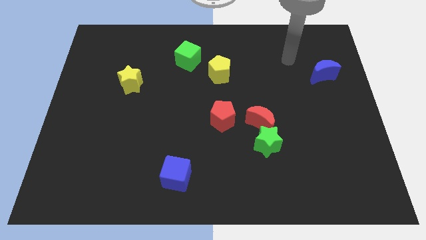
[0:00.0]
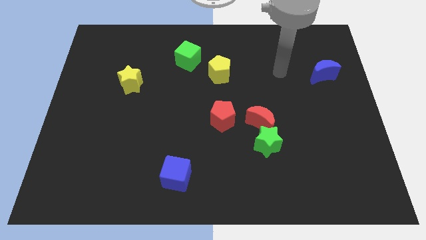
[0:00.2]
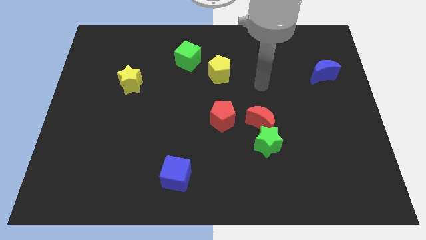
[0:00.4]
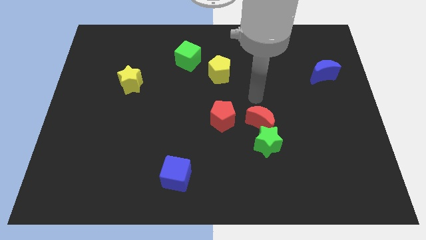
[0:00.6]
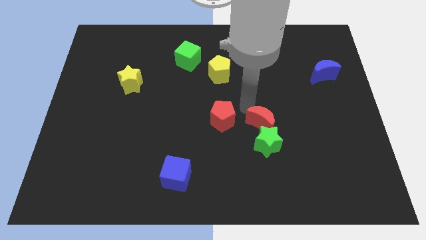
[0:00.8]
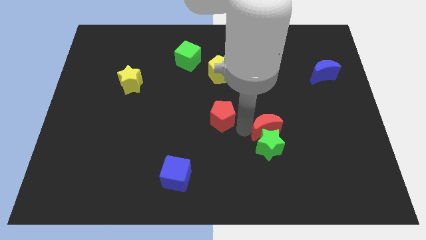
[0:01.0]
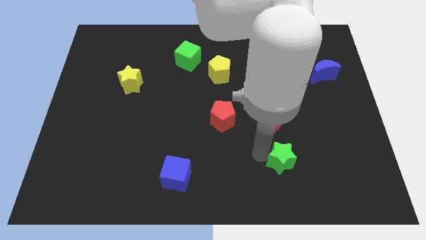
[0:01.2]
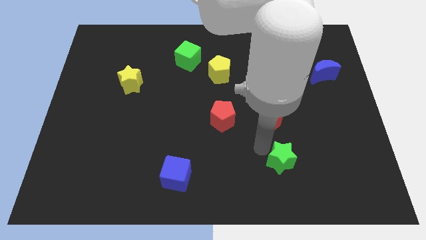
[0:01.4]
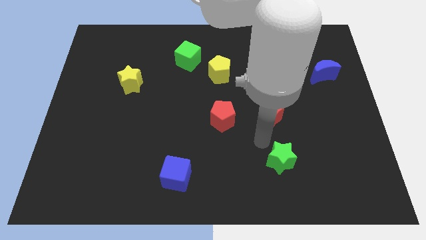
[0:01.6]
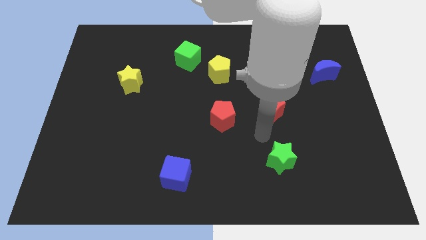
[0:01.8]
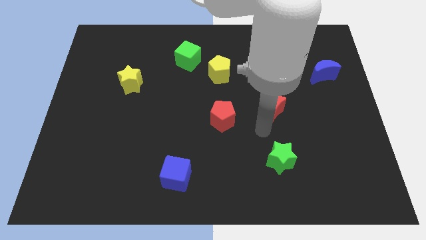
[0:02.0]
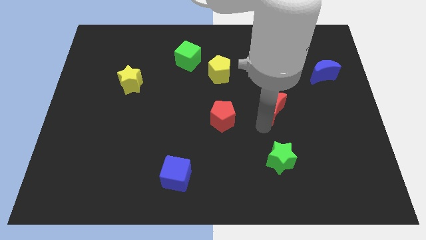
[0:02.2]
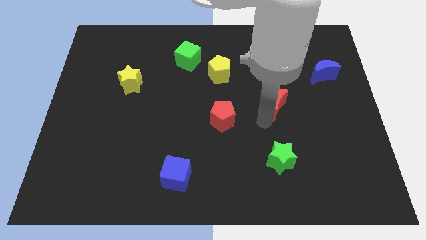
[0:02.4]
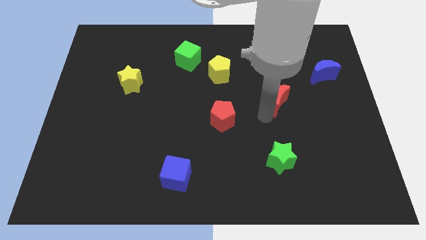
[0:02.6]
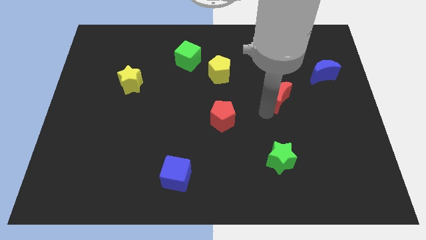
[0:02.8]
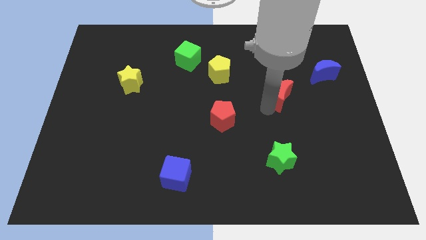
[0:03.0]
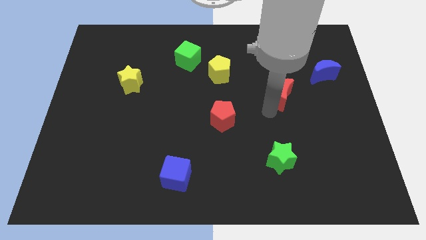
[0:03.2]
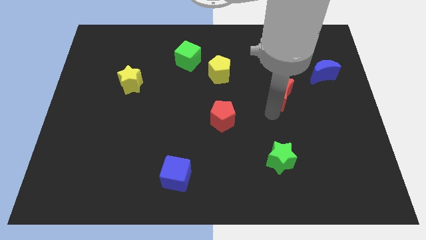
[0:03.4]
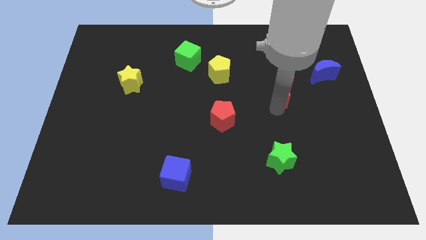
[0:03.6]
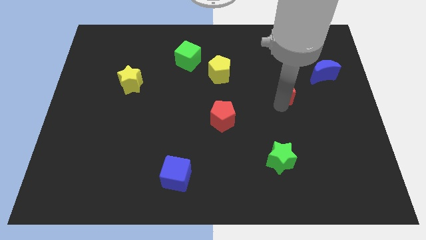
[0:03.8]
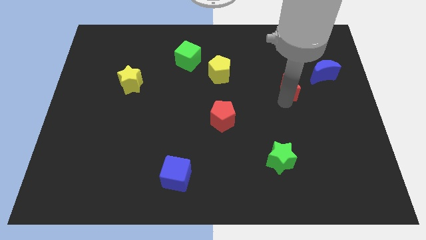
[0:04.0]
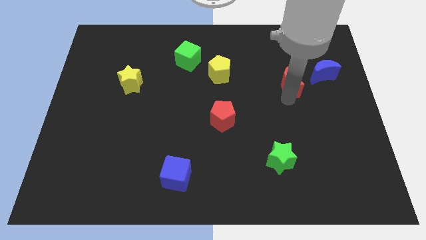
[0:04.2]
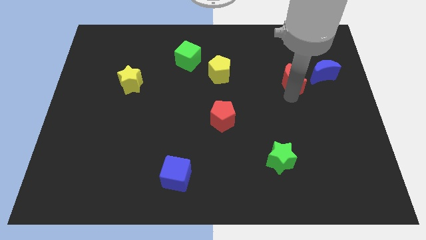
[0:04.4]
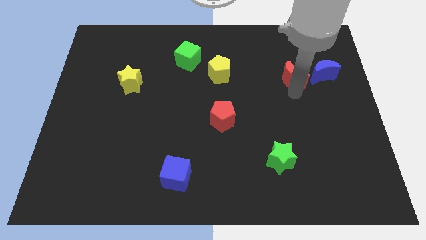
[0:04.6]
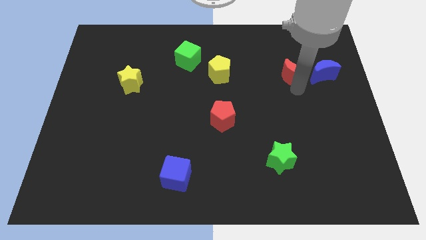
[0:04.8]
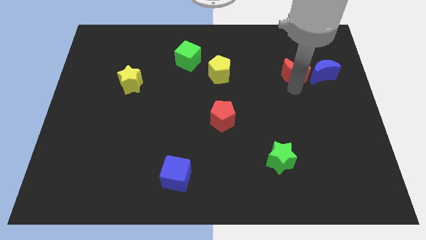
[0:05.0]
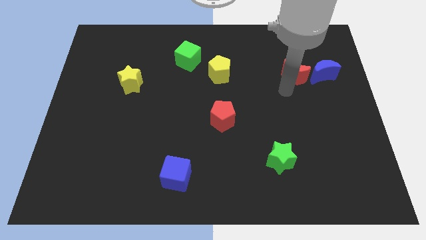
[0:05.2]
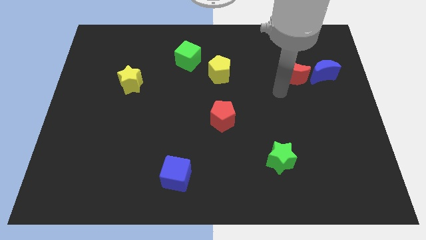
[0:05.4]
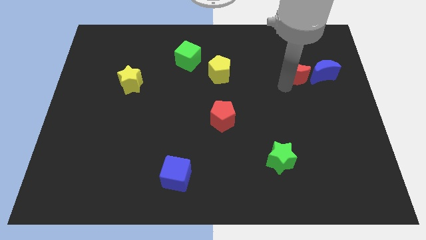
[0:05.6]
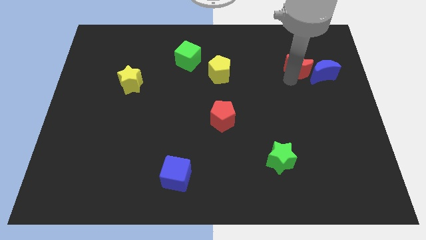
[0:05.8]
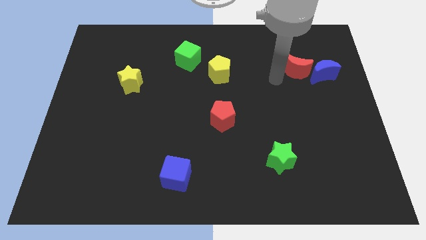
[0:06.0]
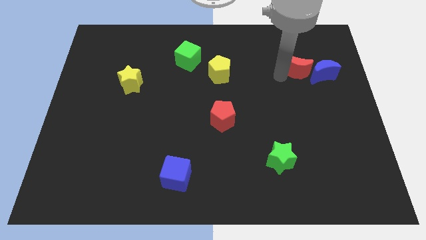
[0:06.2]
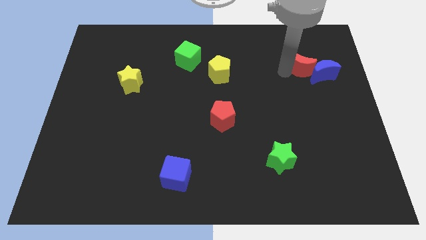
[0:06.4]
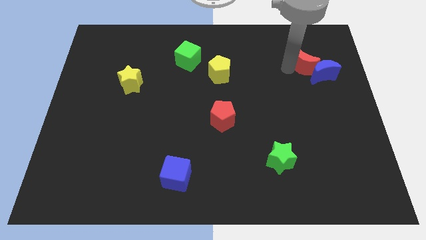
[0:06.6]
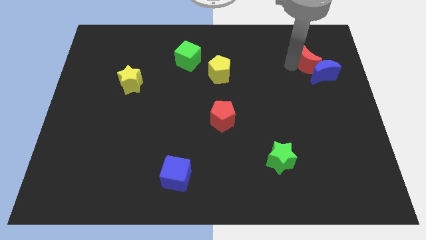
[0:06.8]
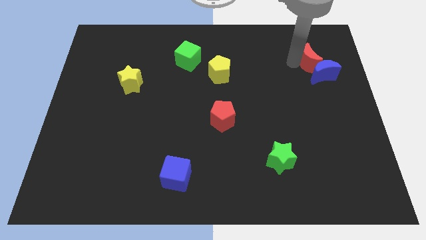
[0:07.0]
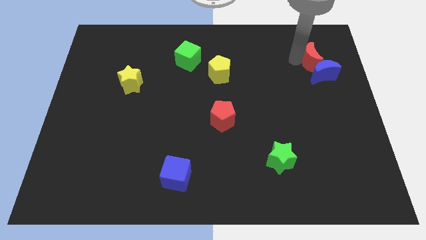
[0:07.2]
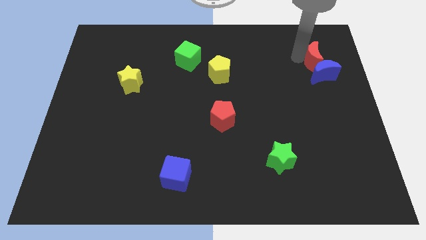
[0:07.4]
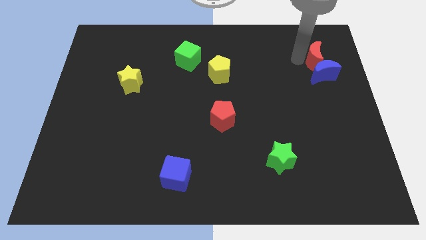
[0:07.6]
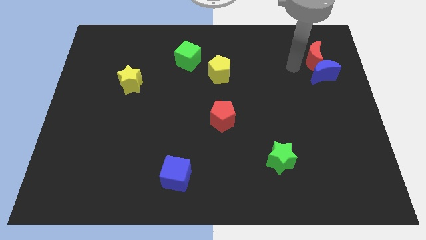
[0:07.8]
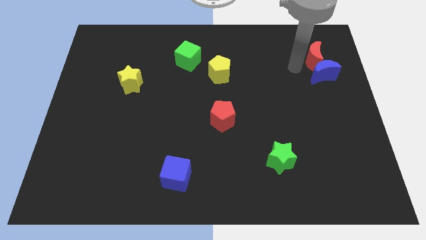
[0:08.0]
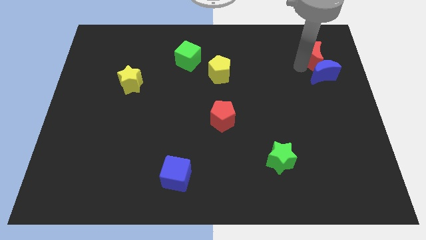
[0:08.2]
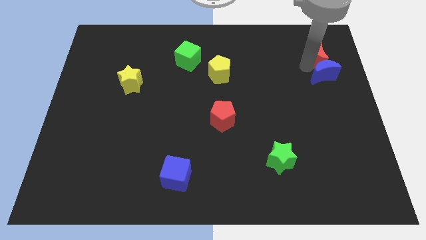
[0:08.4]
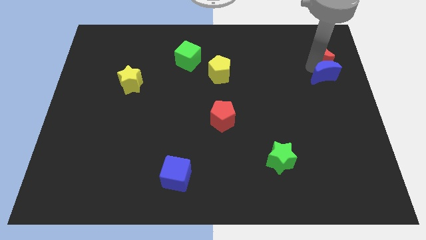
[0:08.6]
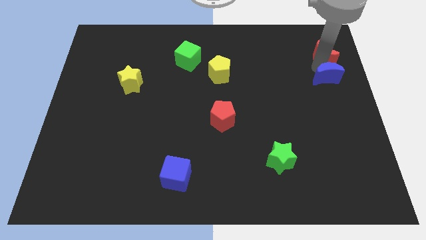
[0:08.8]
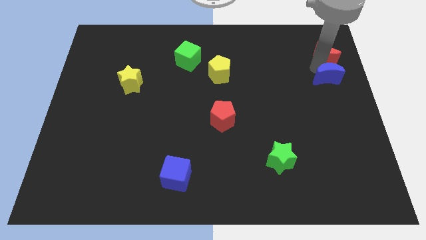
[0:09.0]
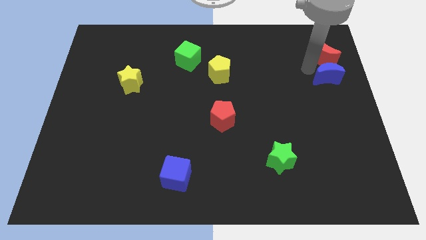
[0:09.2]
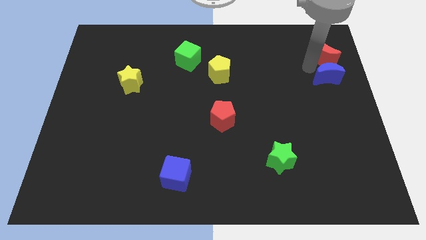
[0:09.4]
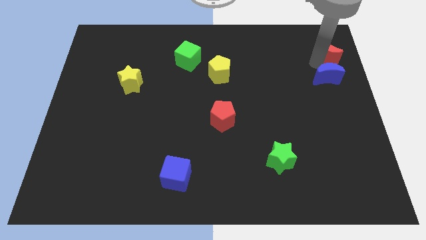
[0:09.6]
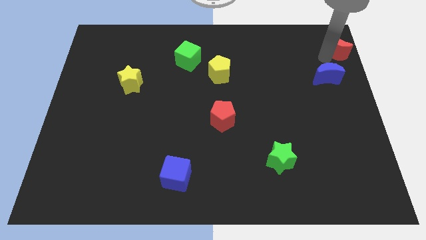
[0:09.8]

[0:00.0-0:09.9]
slide the red moon to the top right corner

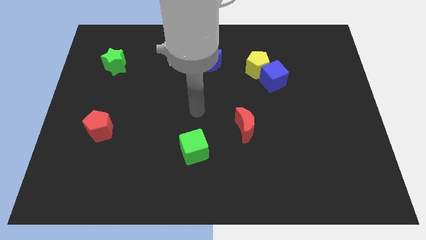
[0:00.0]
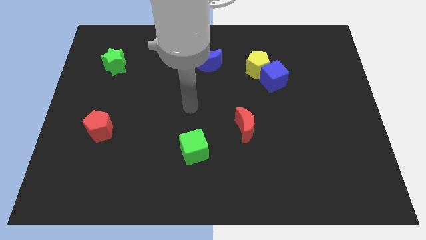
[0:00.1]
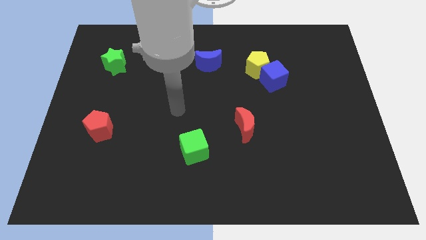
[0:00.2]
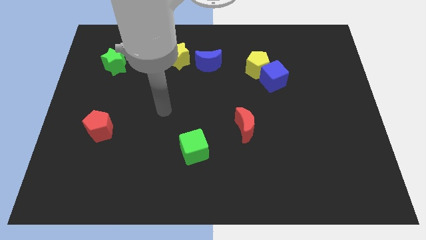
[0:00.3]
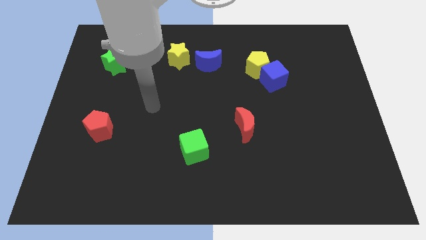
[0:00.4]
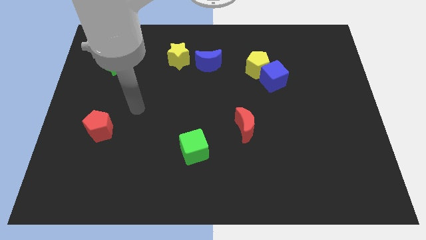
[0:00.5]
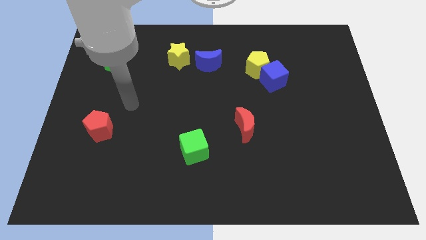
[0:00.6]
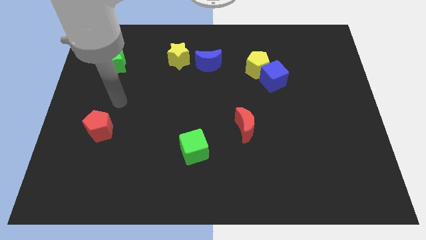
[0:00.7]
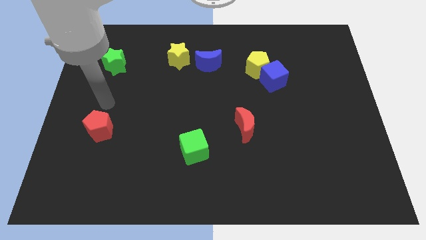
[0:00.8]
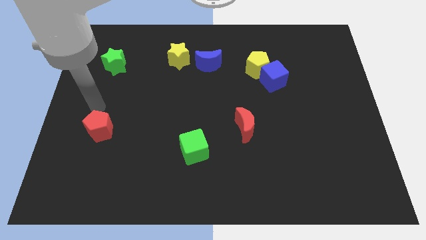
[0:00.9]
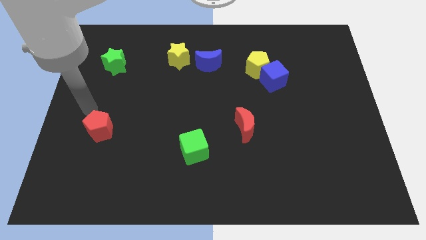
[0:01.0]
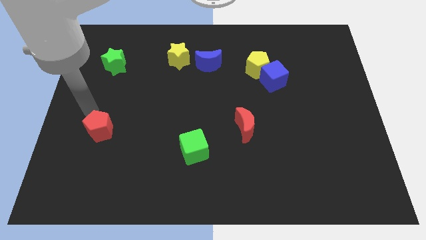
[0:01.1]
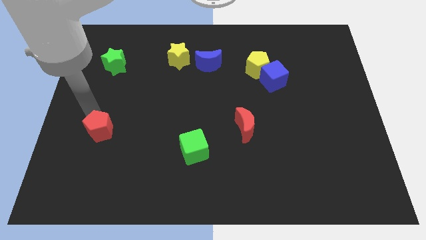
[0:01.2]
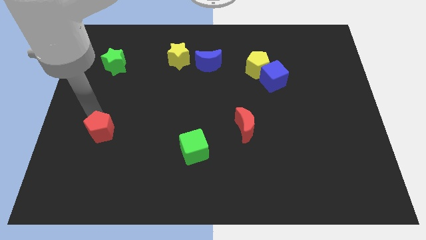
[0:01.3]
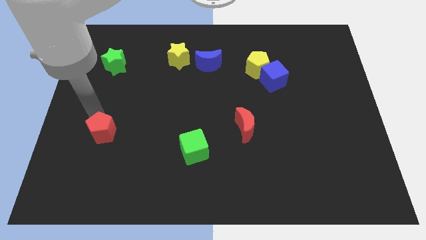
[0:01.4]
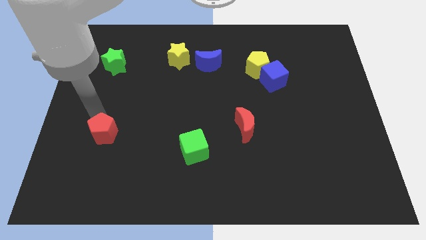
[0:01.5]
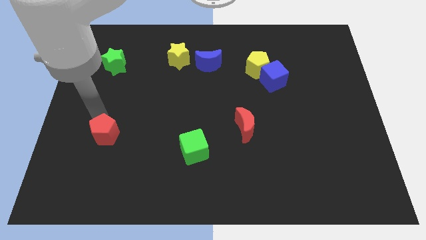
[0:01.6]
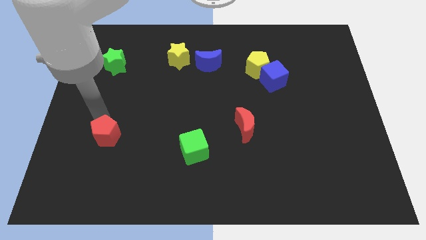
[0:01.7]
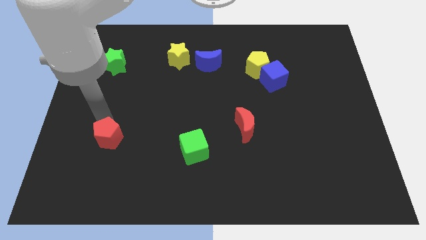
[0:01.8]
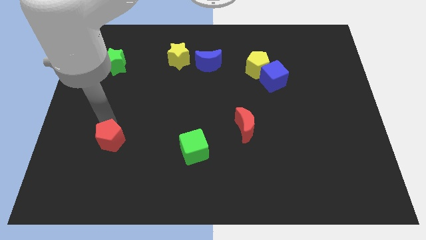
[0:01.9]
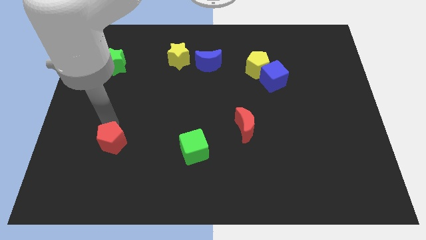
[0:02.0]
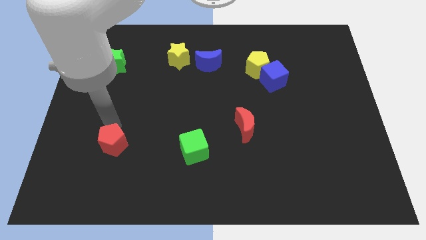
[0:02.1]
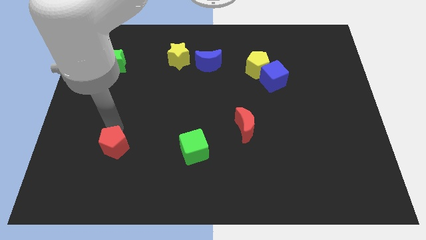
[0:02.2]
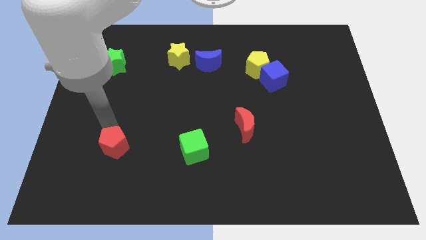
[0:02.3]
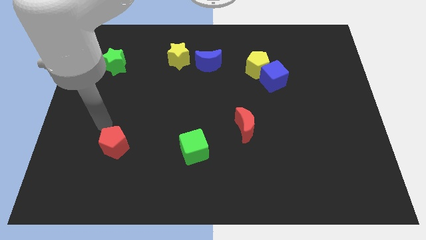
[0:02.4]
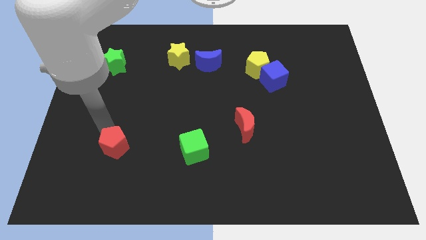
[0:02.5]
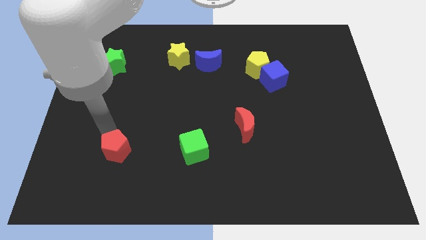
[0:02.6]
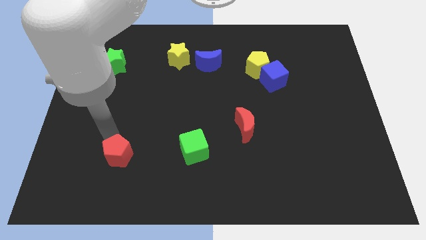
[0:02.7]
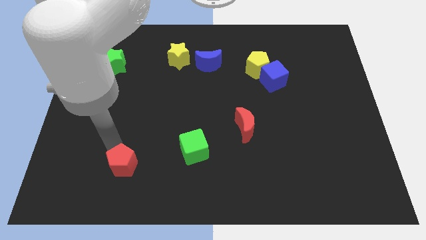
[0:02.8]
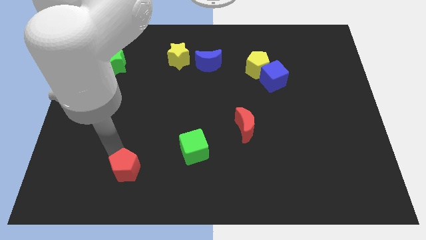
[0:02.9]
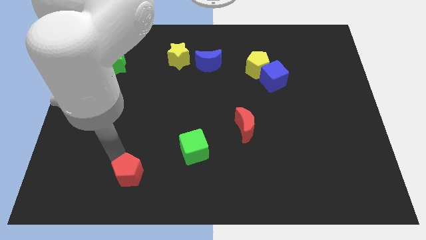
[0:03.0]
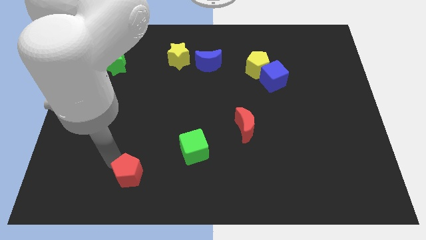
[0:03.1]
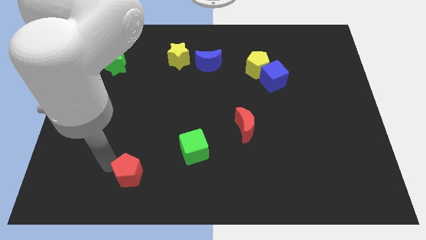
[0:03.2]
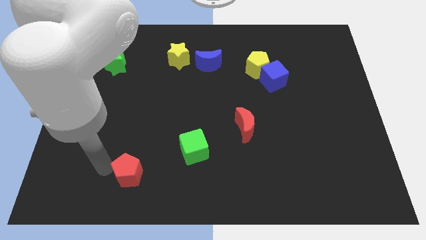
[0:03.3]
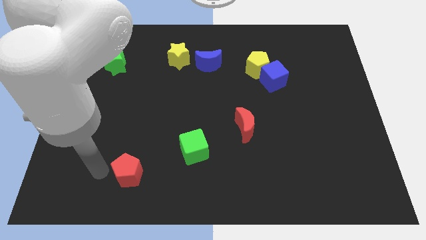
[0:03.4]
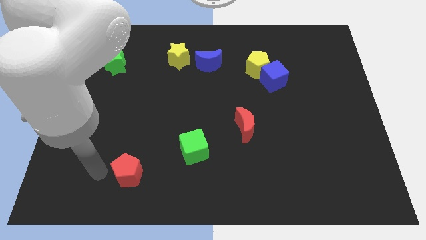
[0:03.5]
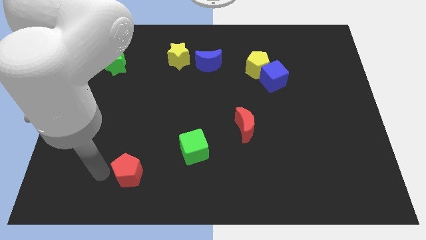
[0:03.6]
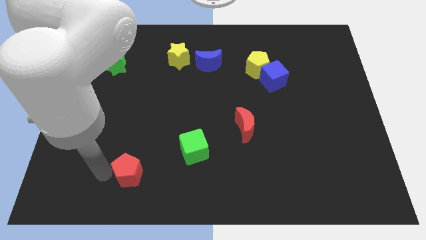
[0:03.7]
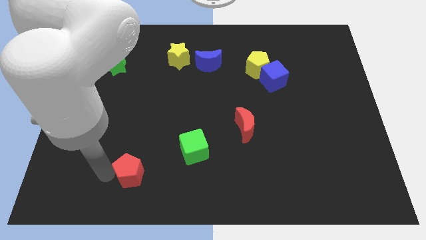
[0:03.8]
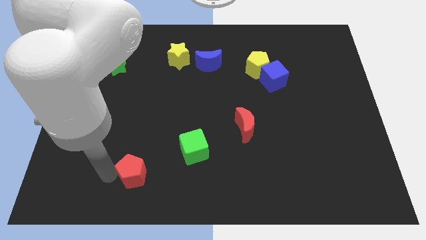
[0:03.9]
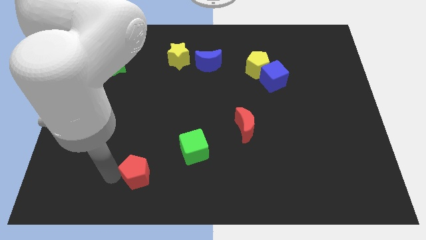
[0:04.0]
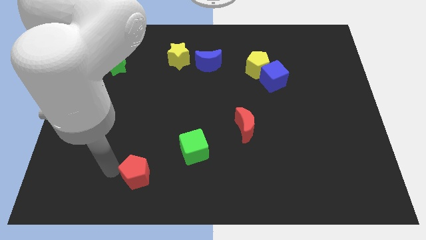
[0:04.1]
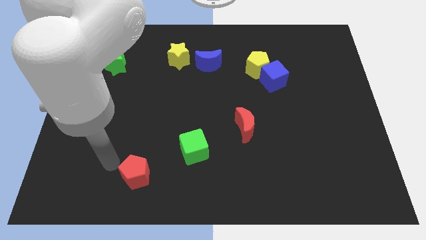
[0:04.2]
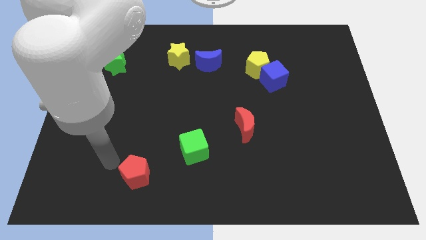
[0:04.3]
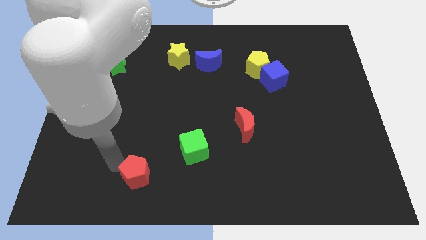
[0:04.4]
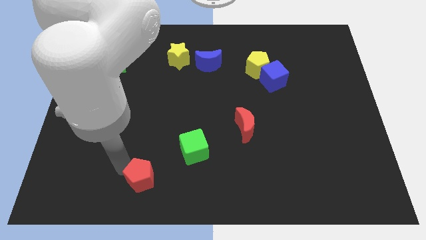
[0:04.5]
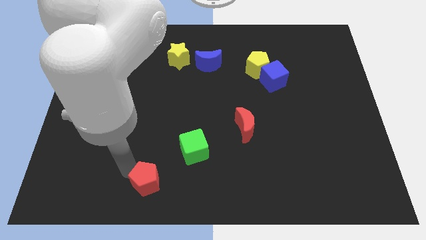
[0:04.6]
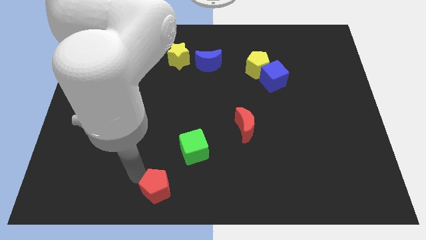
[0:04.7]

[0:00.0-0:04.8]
push the red pentagon to the bottom
